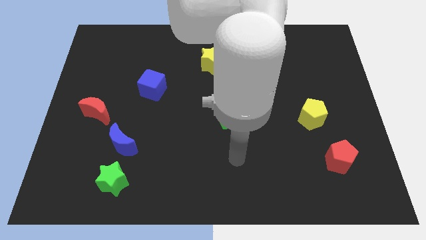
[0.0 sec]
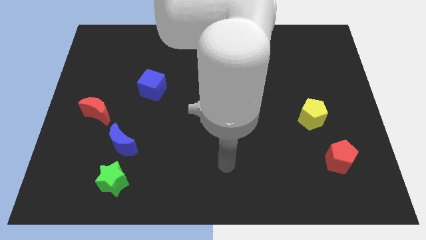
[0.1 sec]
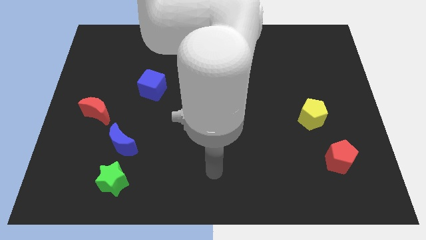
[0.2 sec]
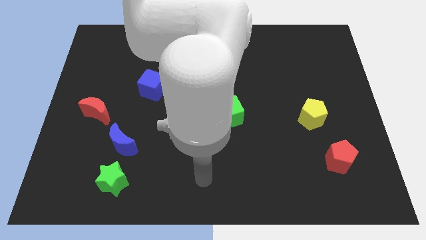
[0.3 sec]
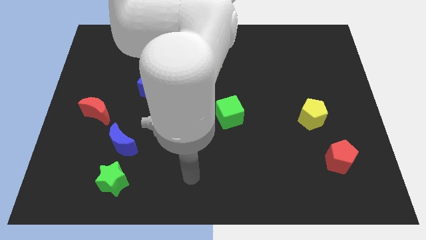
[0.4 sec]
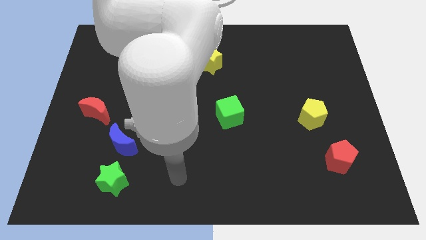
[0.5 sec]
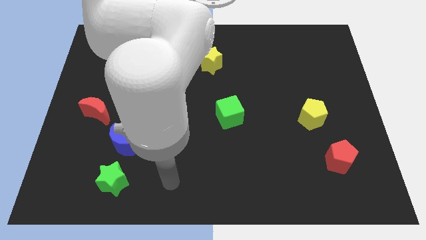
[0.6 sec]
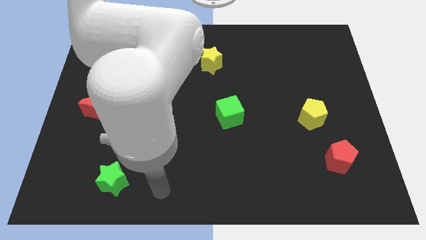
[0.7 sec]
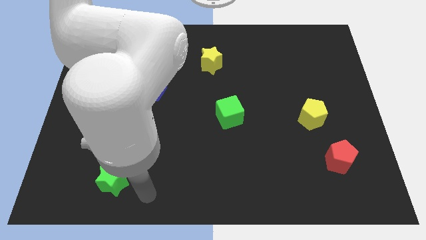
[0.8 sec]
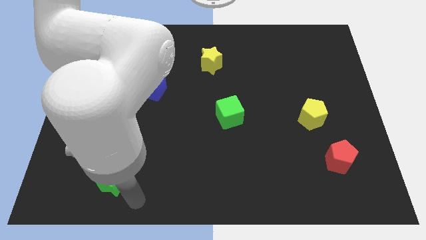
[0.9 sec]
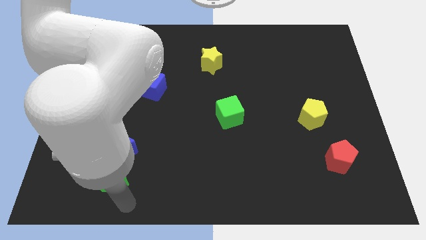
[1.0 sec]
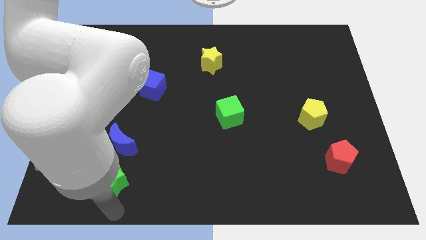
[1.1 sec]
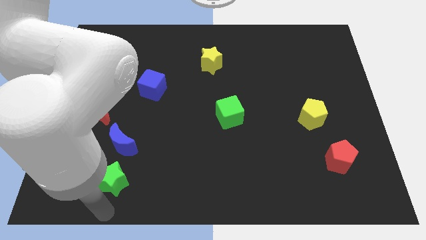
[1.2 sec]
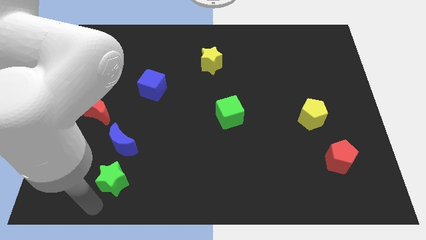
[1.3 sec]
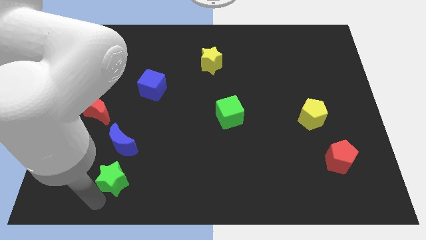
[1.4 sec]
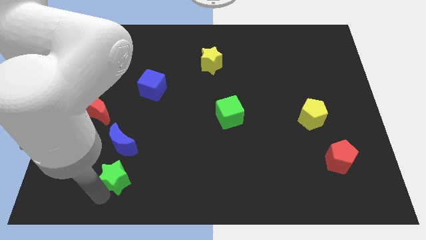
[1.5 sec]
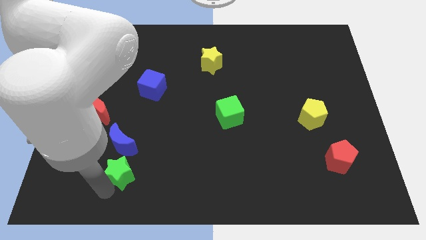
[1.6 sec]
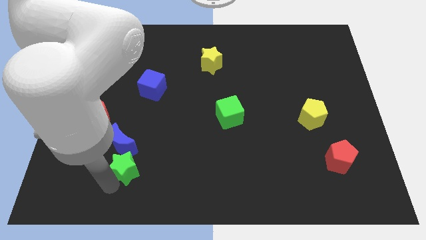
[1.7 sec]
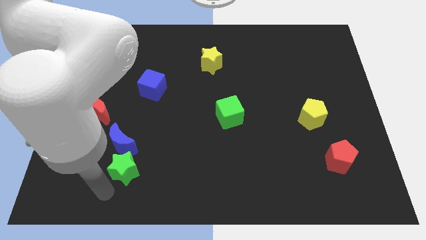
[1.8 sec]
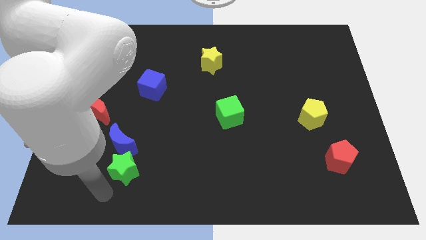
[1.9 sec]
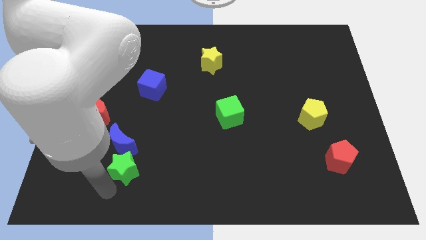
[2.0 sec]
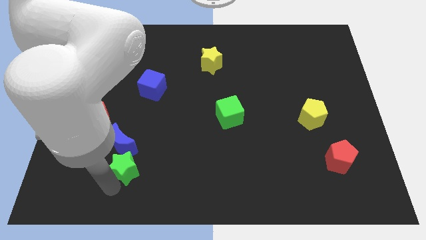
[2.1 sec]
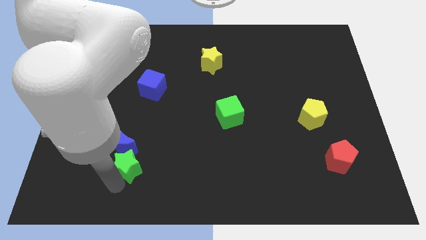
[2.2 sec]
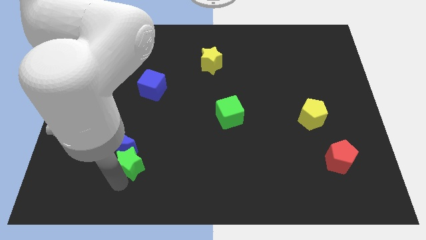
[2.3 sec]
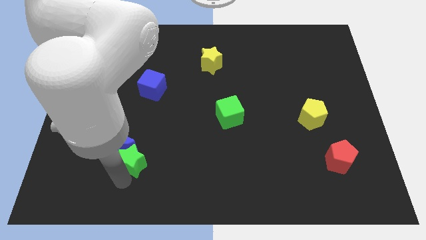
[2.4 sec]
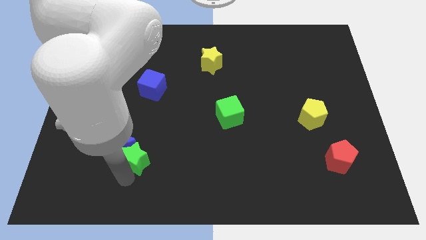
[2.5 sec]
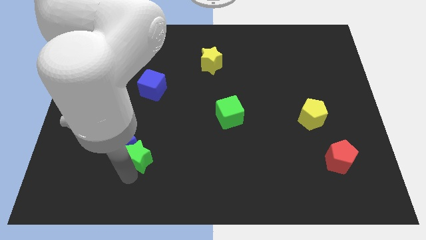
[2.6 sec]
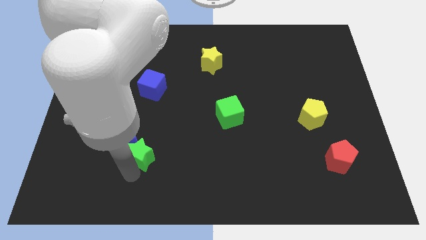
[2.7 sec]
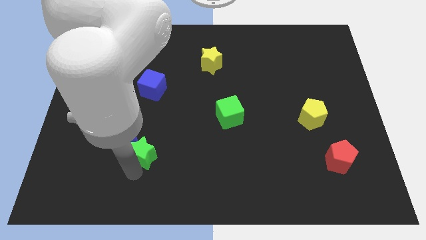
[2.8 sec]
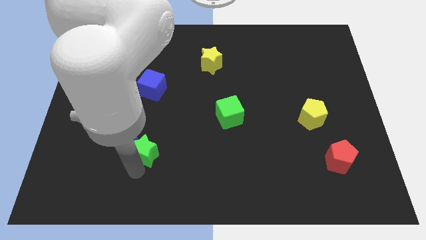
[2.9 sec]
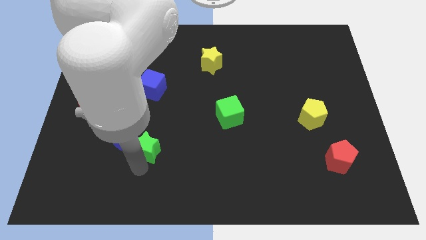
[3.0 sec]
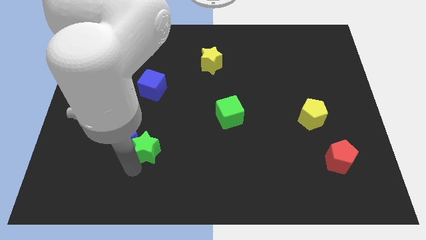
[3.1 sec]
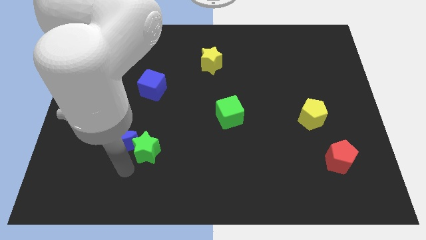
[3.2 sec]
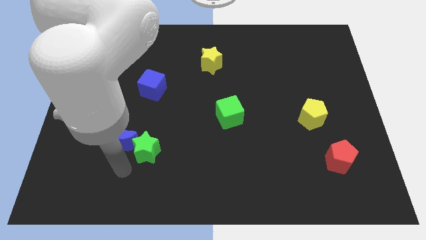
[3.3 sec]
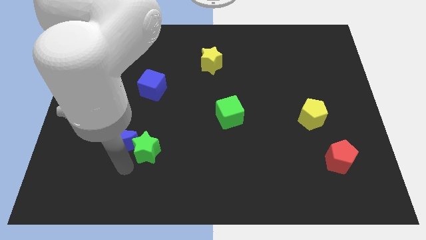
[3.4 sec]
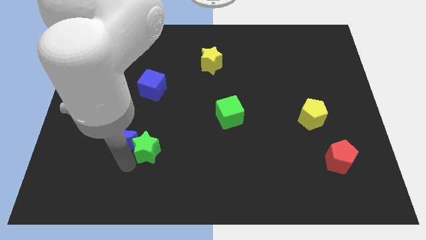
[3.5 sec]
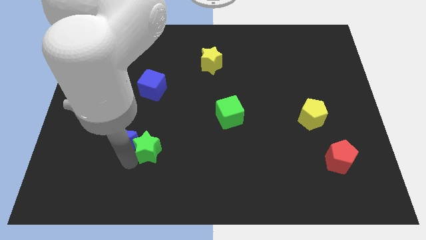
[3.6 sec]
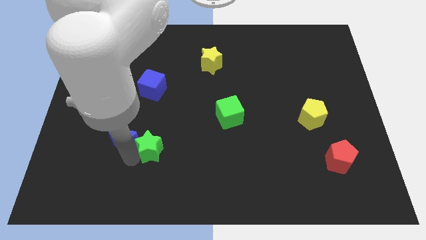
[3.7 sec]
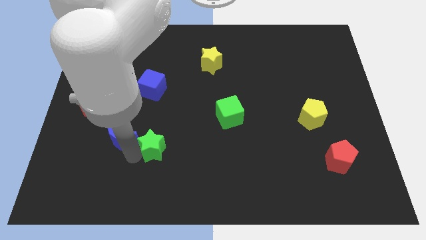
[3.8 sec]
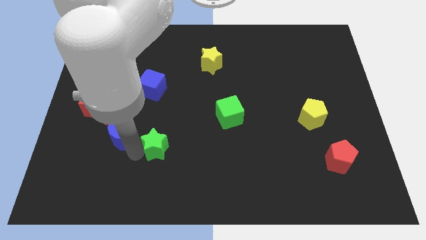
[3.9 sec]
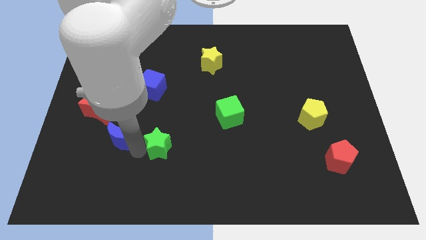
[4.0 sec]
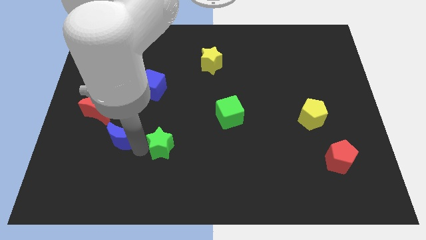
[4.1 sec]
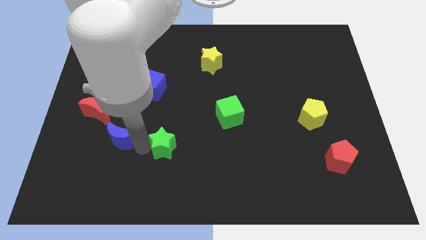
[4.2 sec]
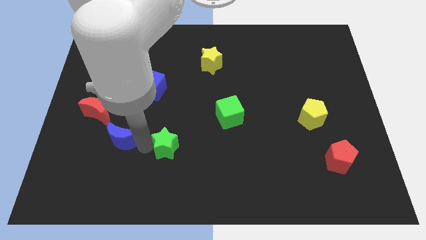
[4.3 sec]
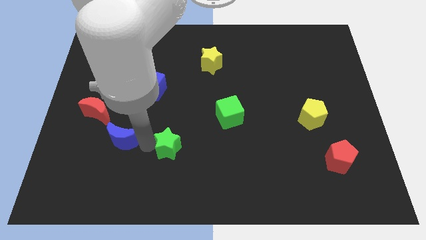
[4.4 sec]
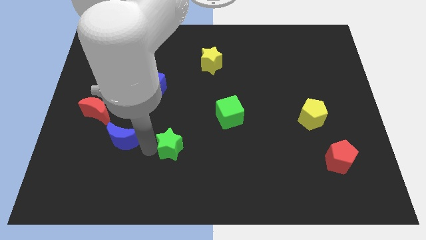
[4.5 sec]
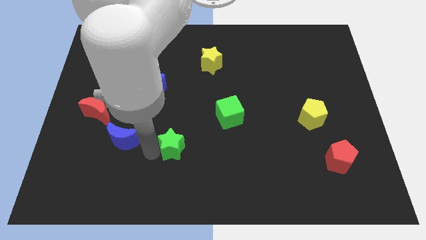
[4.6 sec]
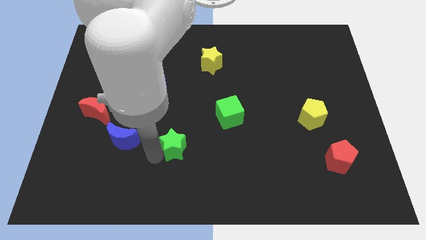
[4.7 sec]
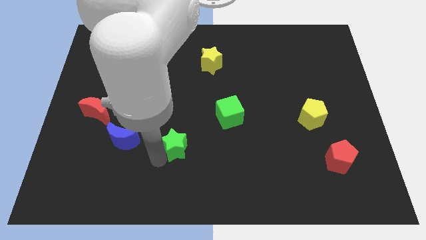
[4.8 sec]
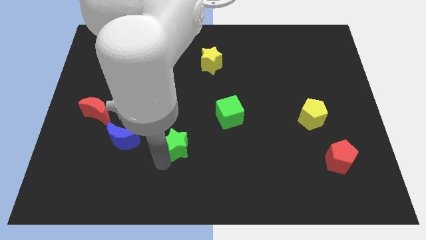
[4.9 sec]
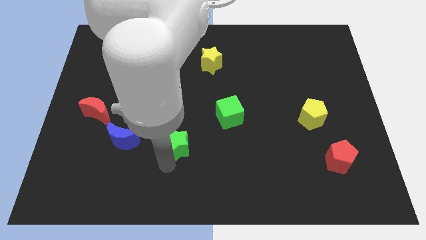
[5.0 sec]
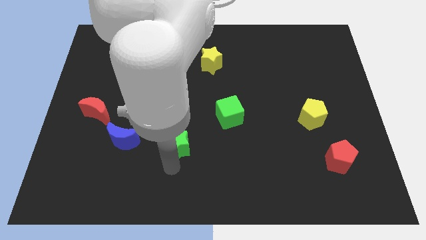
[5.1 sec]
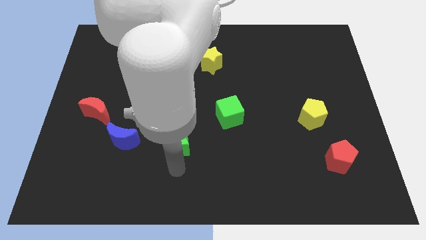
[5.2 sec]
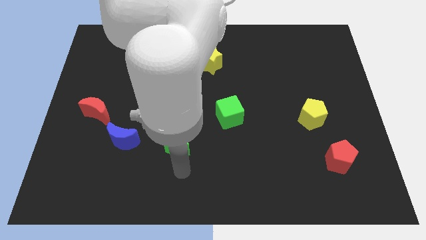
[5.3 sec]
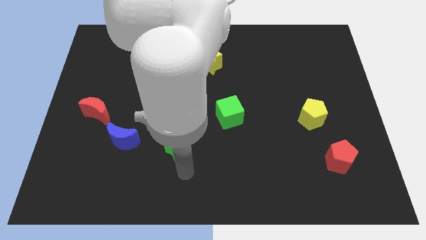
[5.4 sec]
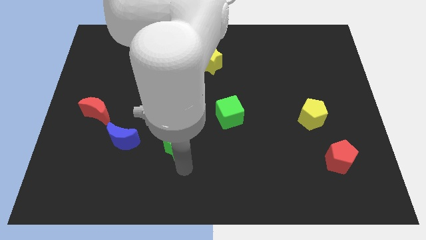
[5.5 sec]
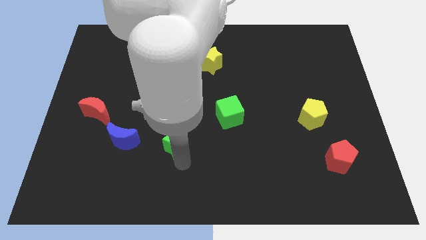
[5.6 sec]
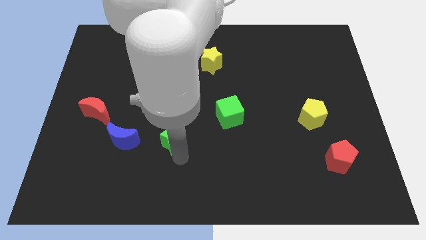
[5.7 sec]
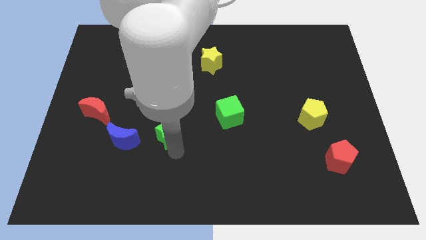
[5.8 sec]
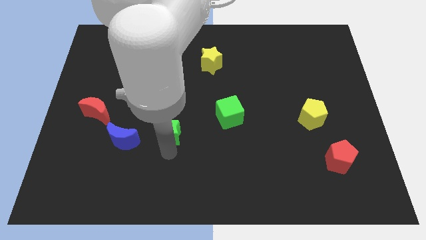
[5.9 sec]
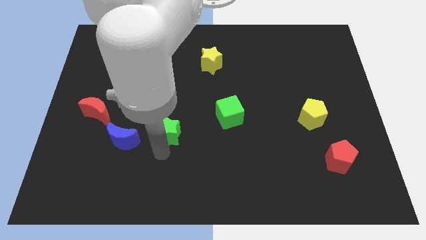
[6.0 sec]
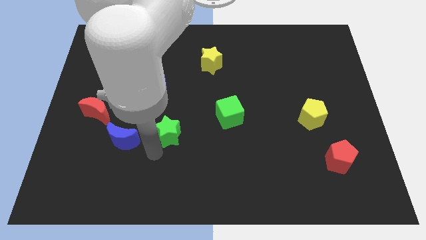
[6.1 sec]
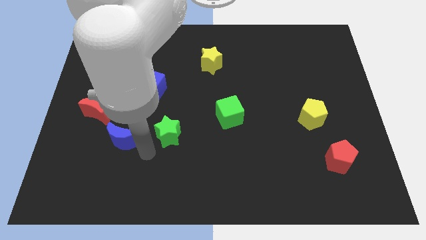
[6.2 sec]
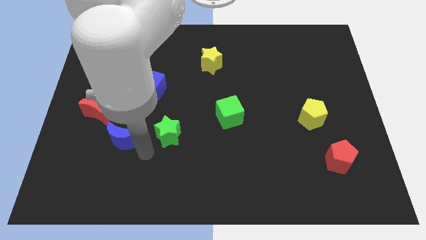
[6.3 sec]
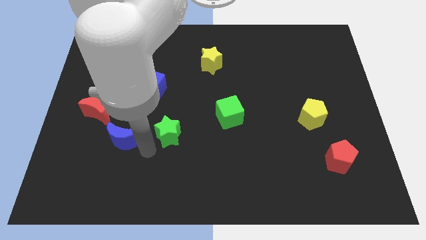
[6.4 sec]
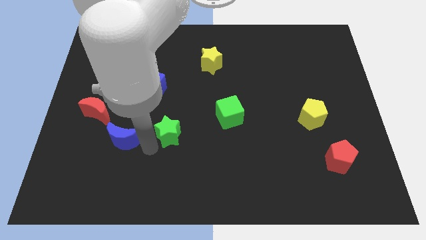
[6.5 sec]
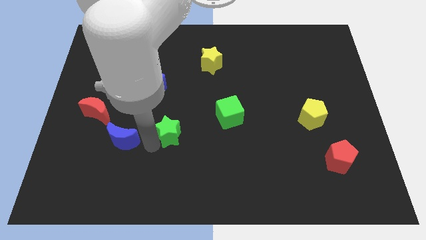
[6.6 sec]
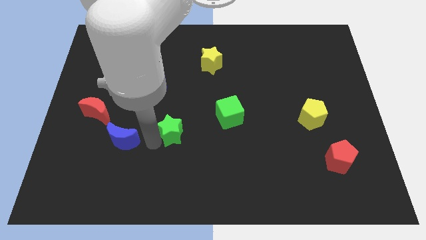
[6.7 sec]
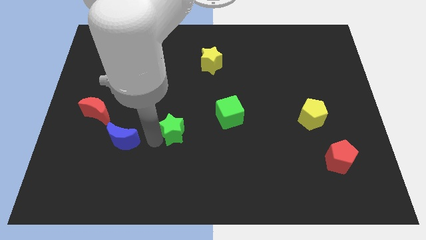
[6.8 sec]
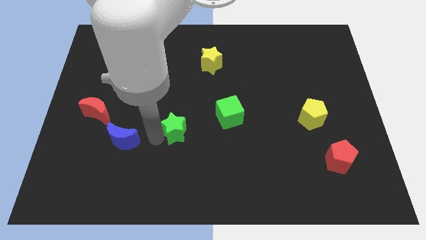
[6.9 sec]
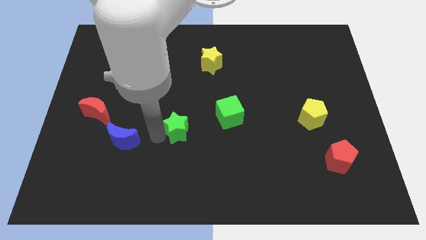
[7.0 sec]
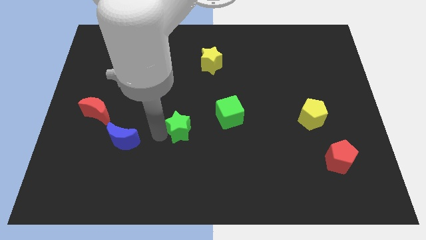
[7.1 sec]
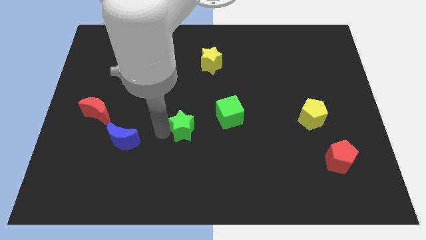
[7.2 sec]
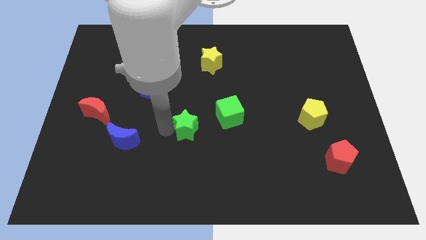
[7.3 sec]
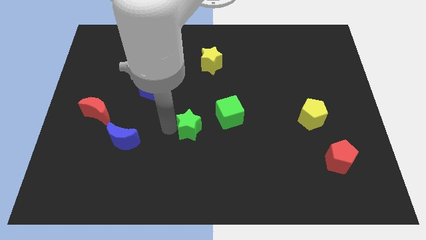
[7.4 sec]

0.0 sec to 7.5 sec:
push the green star upwards and right

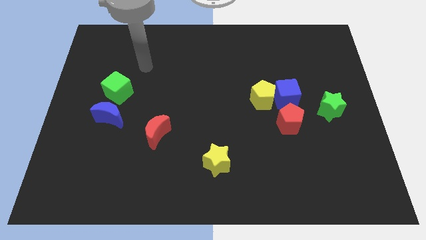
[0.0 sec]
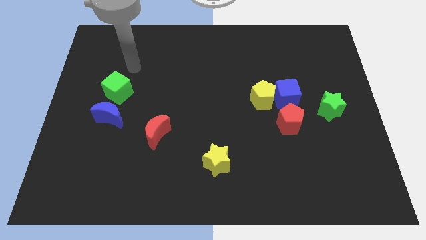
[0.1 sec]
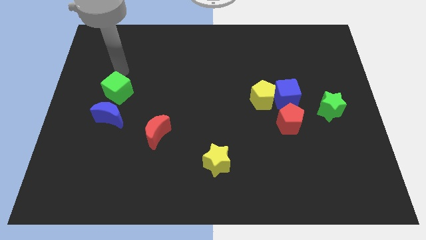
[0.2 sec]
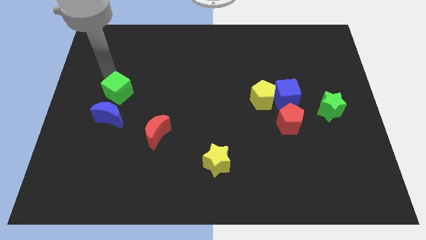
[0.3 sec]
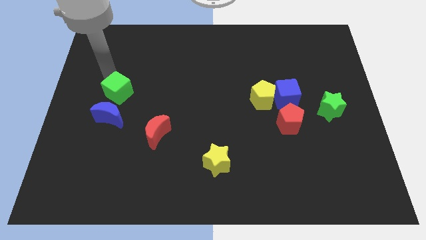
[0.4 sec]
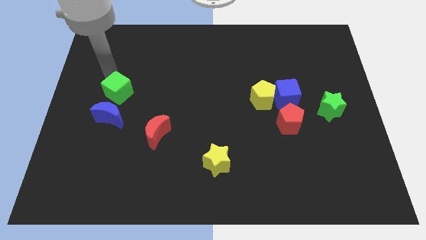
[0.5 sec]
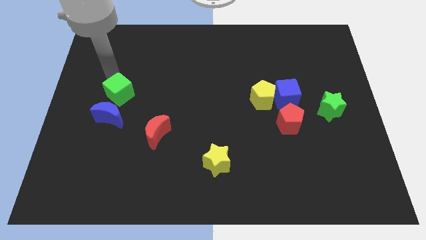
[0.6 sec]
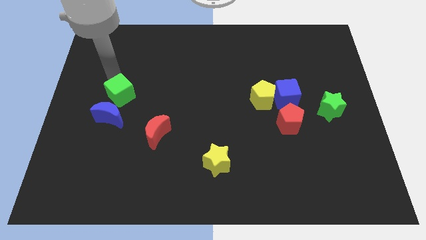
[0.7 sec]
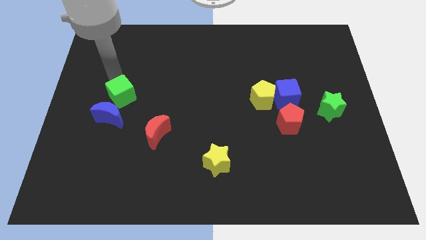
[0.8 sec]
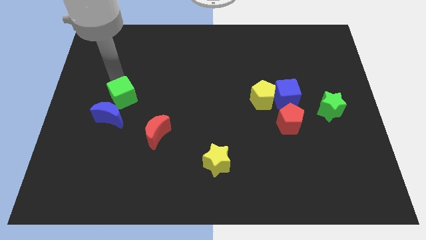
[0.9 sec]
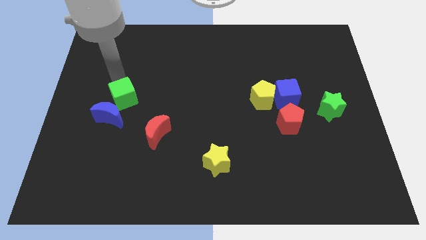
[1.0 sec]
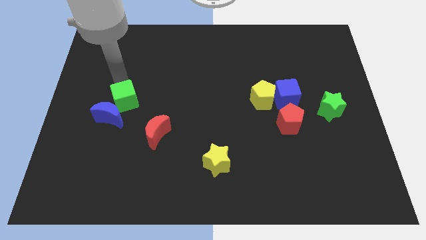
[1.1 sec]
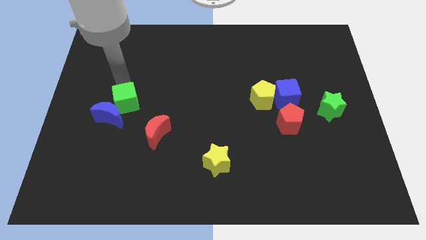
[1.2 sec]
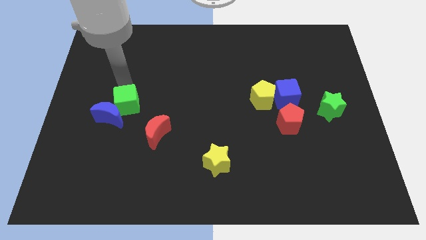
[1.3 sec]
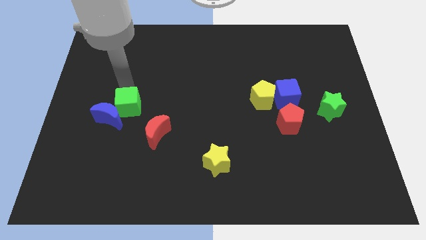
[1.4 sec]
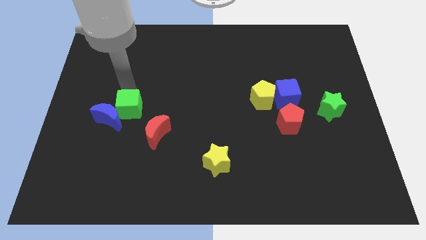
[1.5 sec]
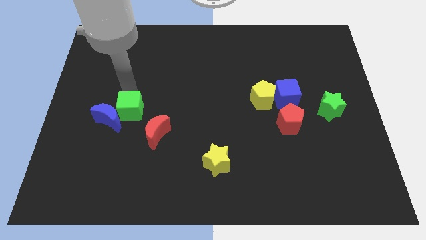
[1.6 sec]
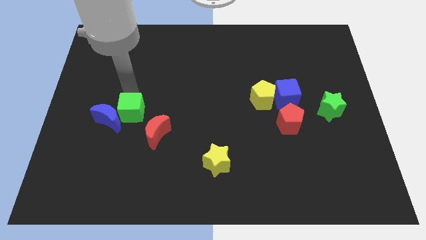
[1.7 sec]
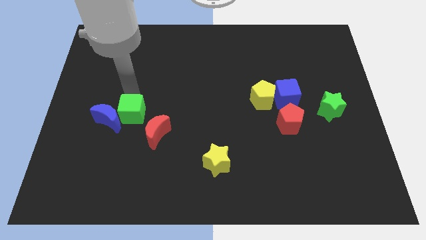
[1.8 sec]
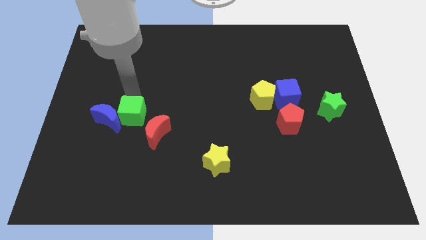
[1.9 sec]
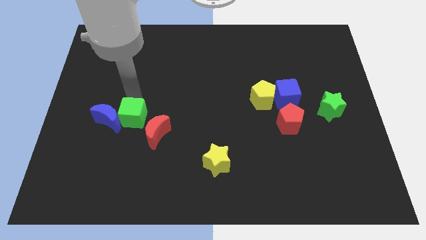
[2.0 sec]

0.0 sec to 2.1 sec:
move the green cube a little bit down
